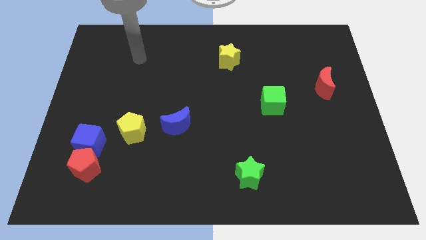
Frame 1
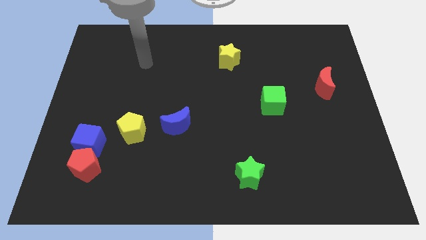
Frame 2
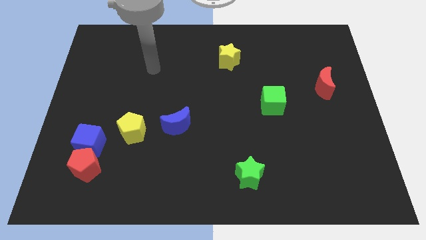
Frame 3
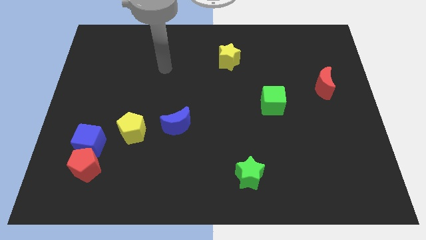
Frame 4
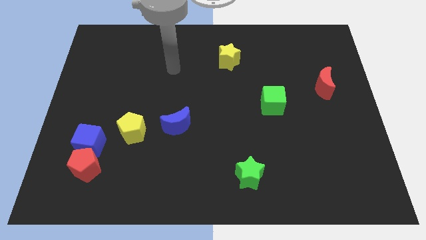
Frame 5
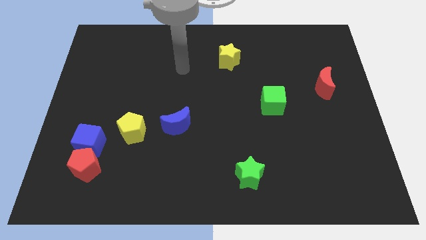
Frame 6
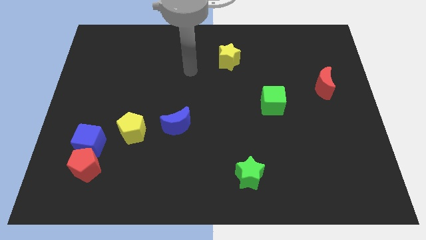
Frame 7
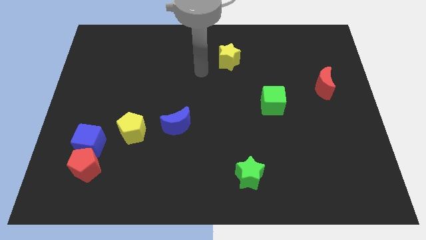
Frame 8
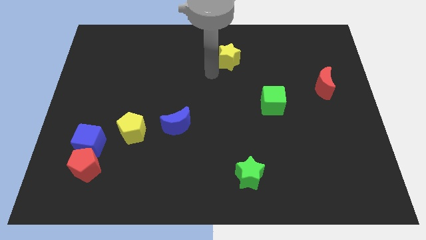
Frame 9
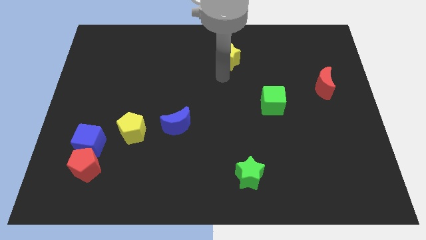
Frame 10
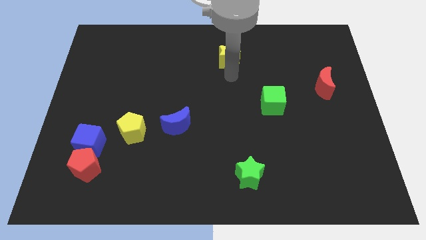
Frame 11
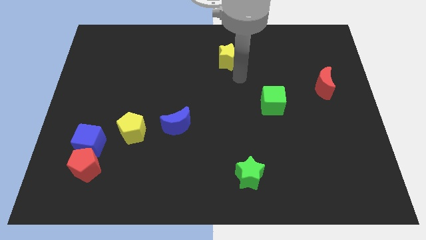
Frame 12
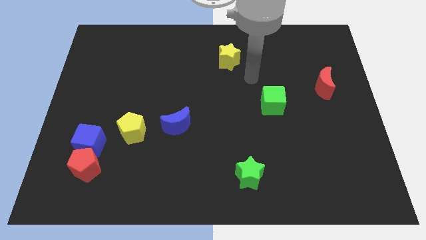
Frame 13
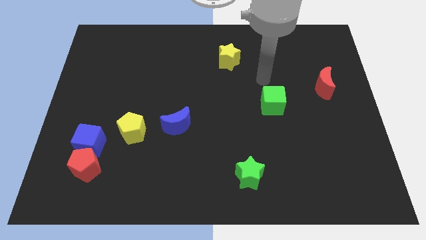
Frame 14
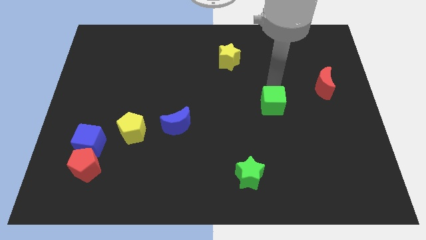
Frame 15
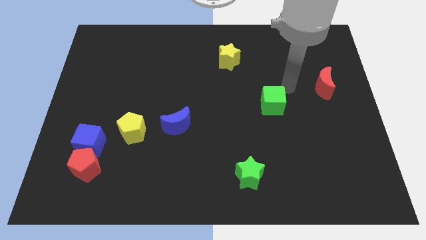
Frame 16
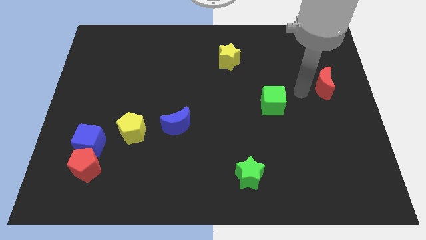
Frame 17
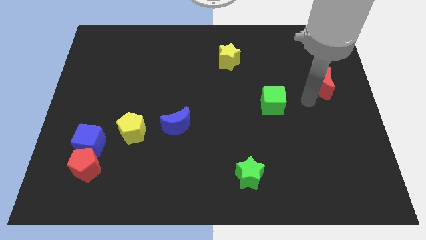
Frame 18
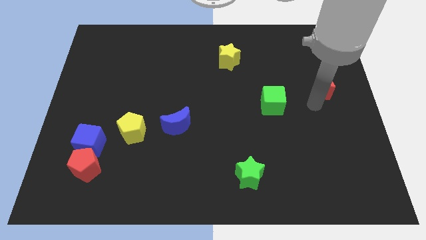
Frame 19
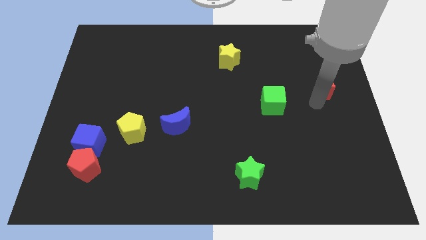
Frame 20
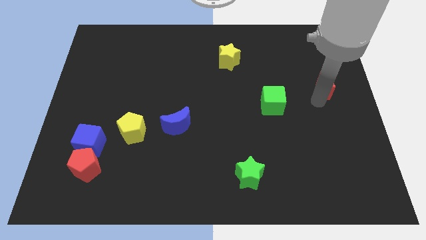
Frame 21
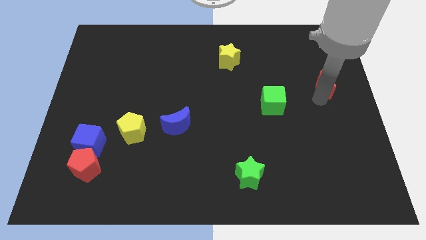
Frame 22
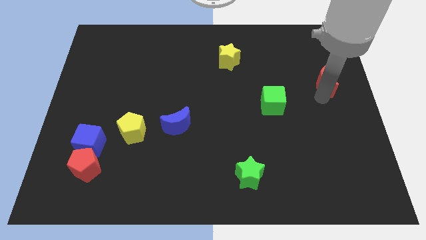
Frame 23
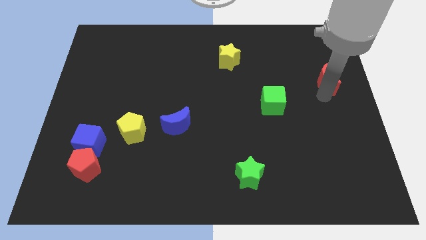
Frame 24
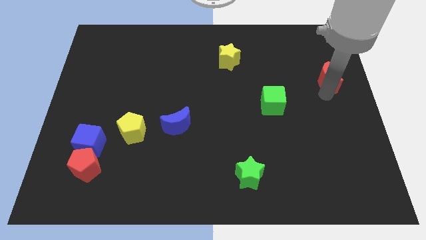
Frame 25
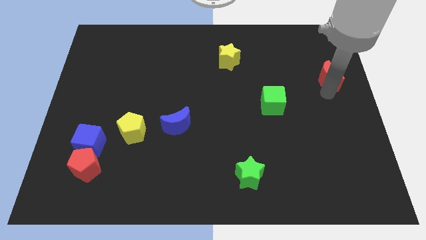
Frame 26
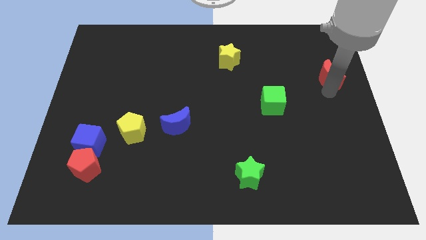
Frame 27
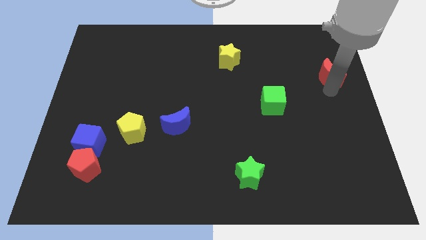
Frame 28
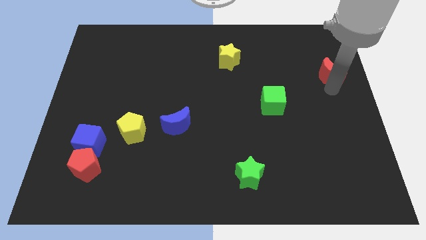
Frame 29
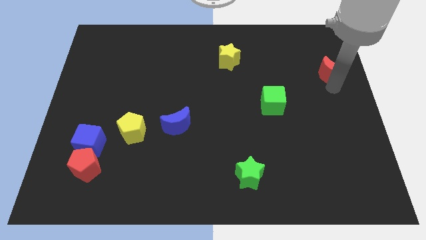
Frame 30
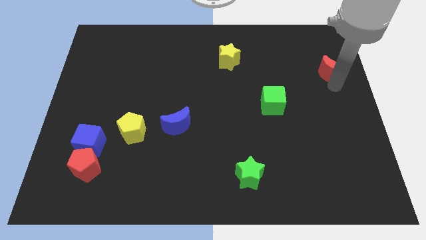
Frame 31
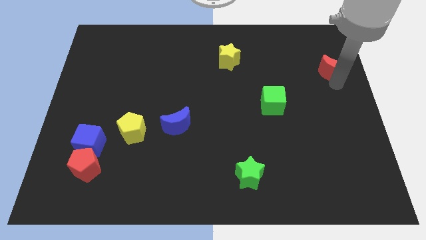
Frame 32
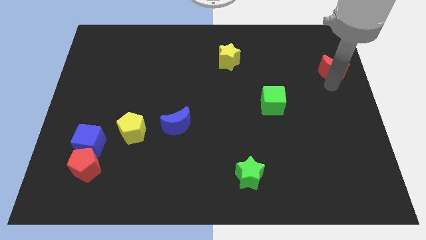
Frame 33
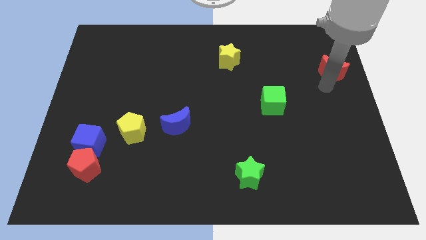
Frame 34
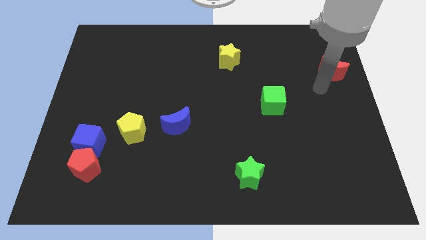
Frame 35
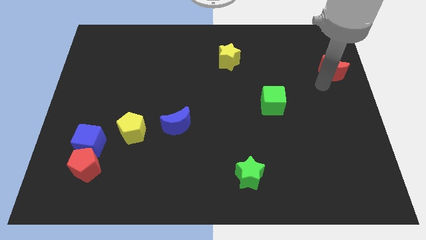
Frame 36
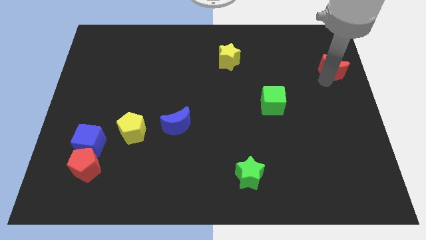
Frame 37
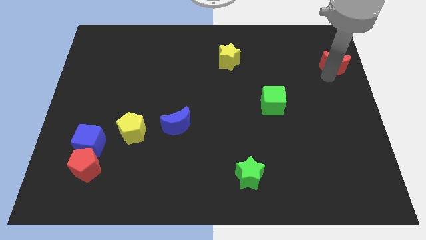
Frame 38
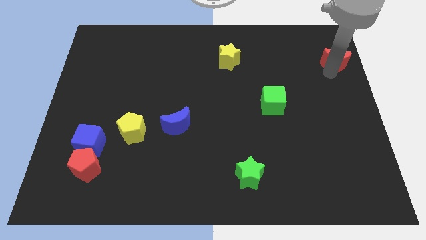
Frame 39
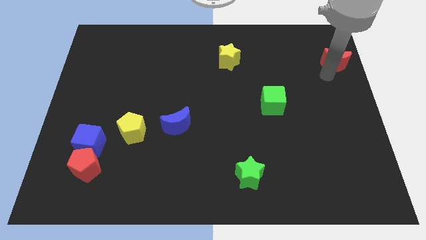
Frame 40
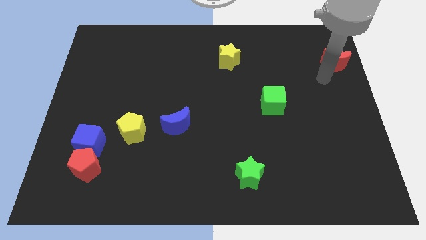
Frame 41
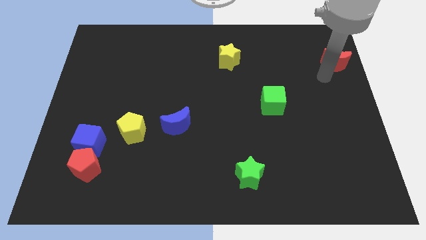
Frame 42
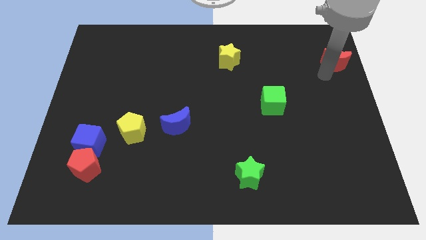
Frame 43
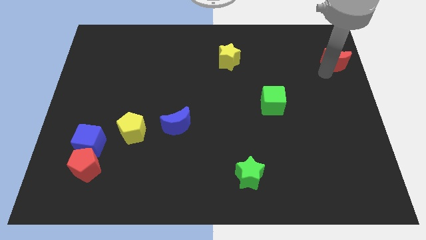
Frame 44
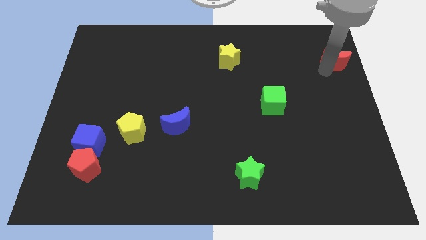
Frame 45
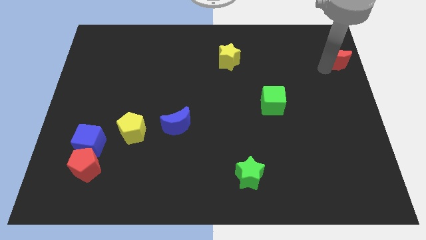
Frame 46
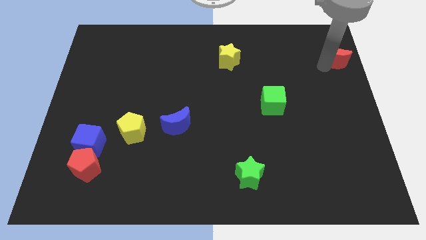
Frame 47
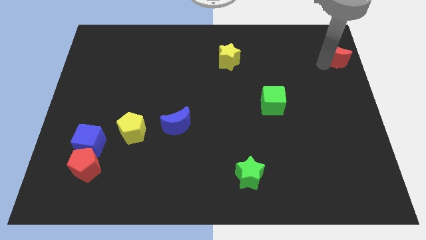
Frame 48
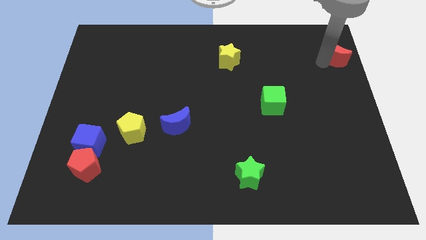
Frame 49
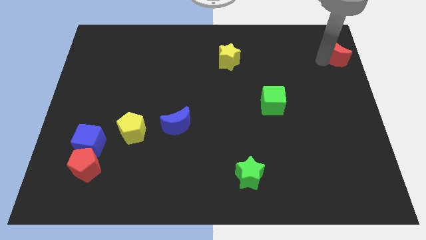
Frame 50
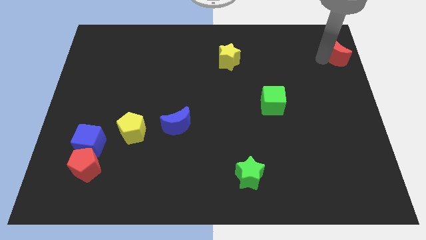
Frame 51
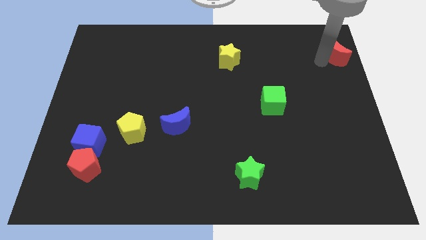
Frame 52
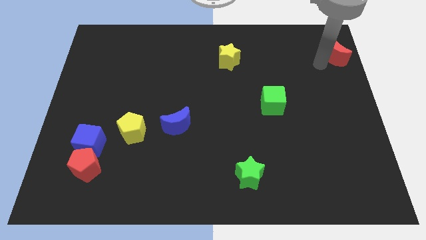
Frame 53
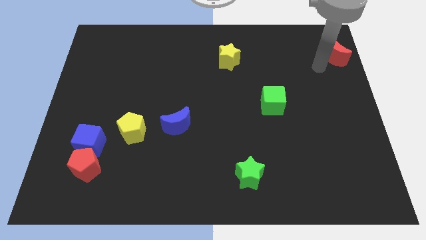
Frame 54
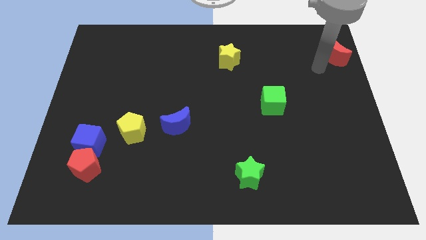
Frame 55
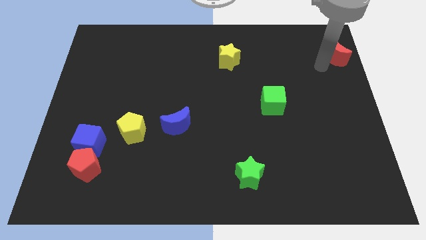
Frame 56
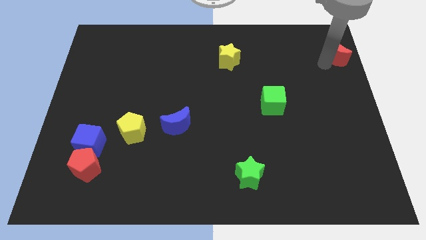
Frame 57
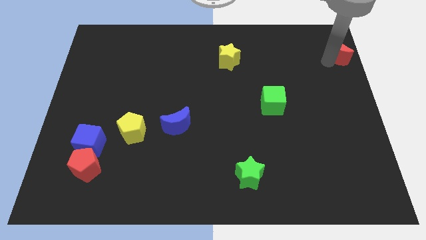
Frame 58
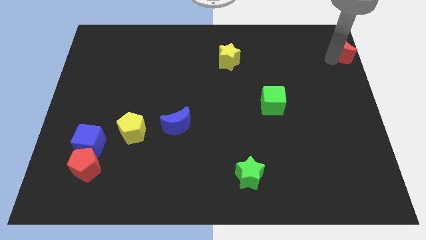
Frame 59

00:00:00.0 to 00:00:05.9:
push the red moon to the top right
